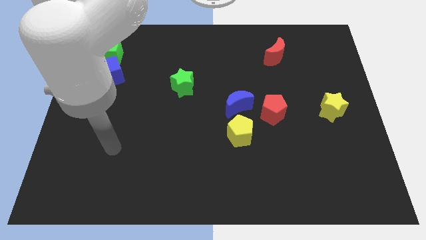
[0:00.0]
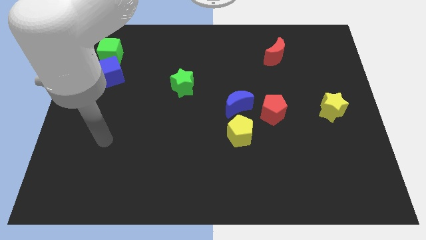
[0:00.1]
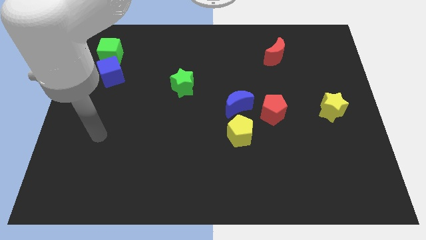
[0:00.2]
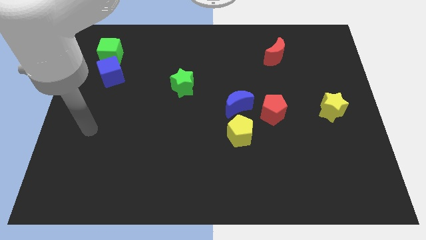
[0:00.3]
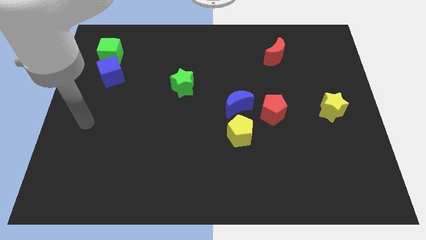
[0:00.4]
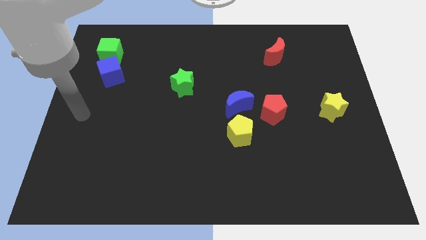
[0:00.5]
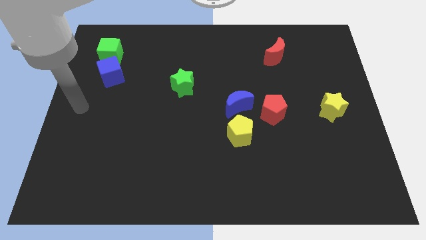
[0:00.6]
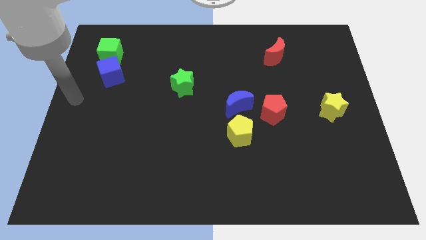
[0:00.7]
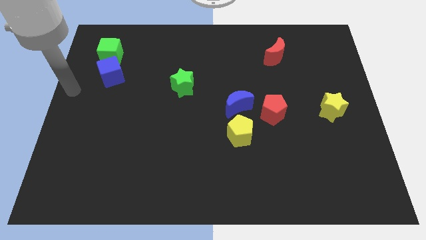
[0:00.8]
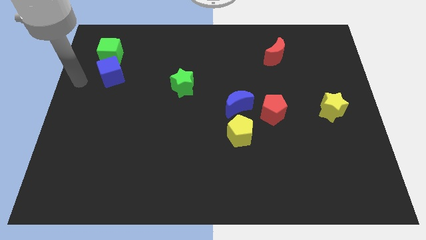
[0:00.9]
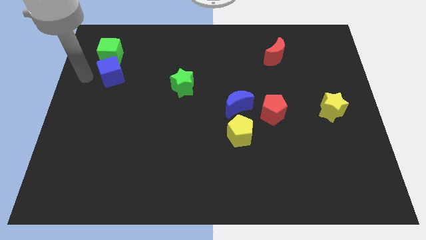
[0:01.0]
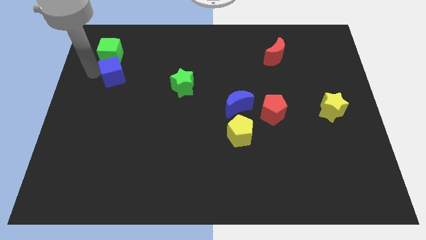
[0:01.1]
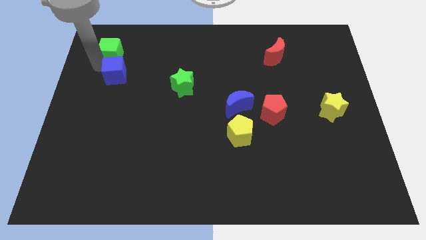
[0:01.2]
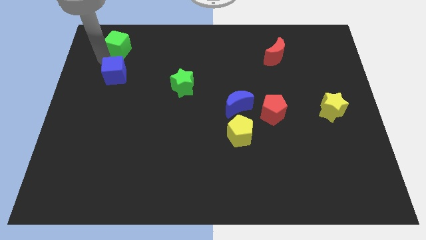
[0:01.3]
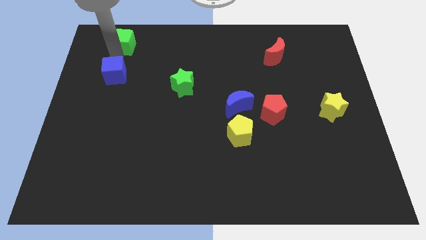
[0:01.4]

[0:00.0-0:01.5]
move the blue cube away from the green cube

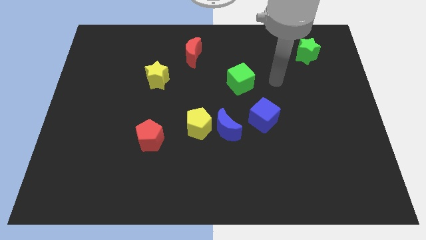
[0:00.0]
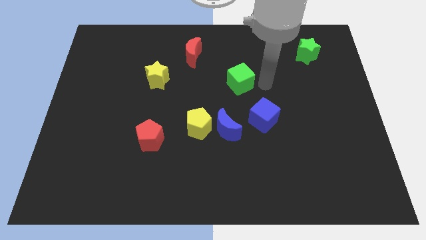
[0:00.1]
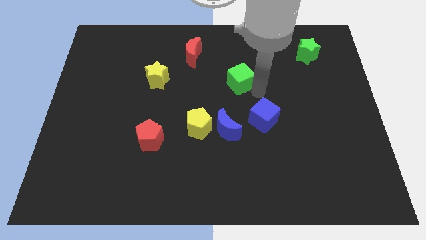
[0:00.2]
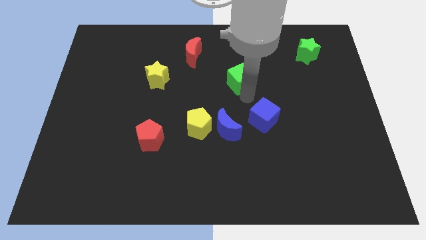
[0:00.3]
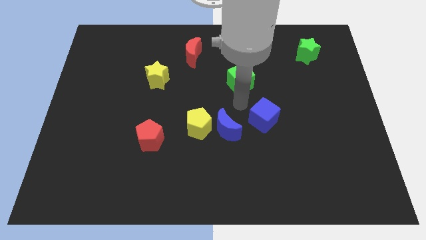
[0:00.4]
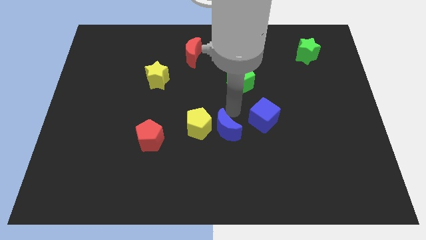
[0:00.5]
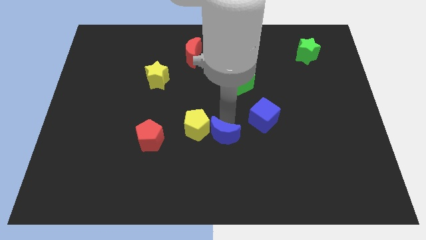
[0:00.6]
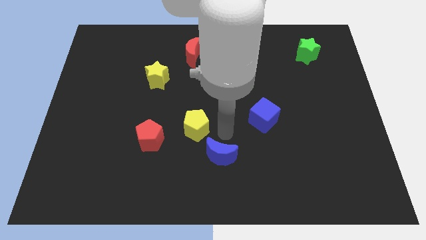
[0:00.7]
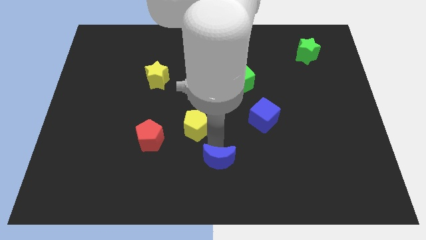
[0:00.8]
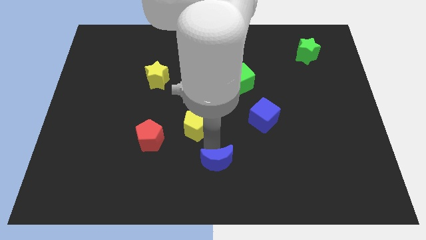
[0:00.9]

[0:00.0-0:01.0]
pull the yellow pentagon apart from the blue moon

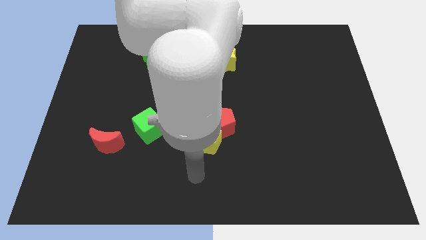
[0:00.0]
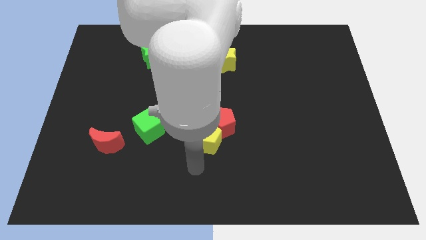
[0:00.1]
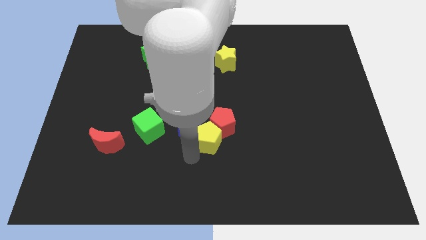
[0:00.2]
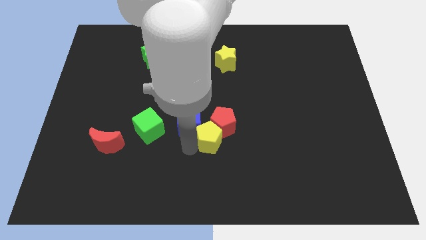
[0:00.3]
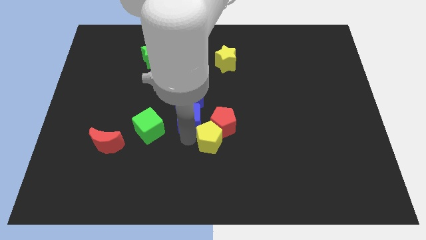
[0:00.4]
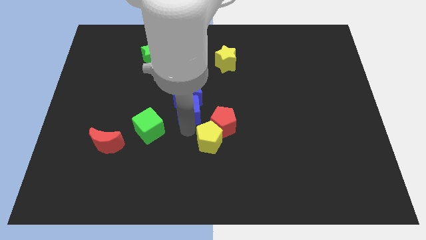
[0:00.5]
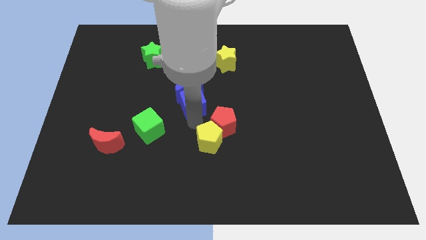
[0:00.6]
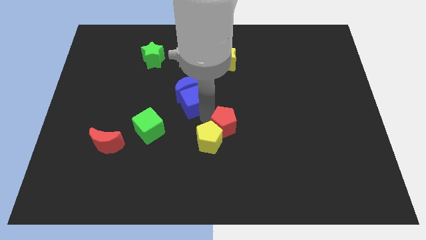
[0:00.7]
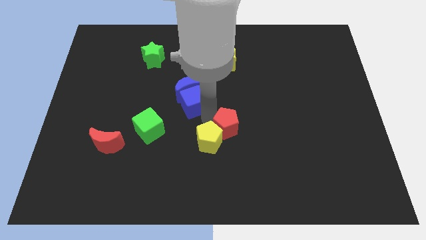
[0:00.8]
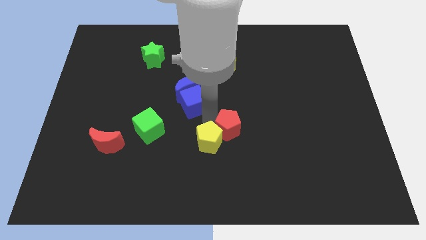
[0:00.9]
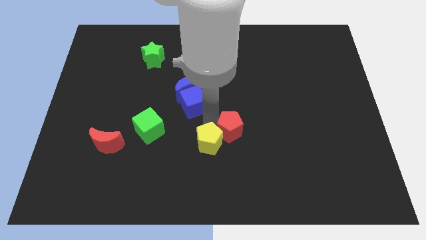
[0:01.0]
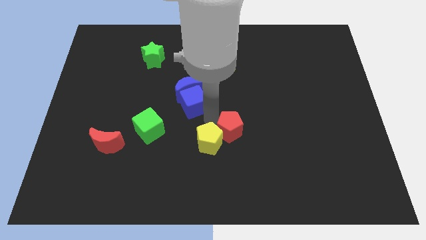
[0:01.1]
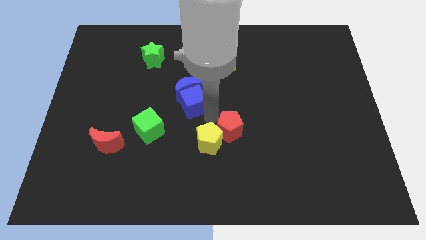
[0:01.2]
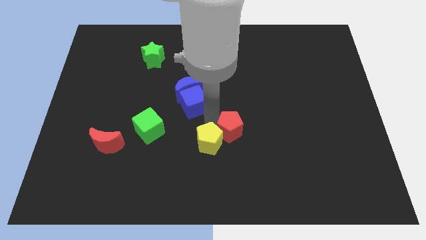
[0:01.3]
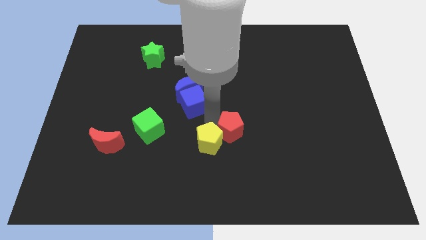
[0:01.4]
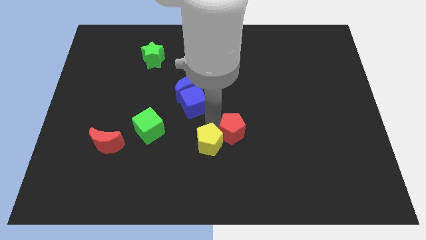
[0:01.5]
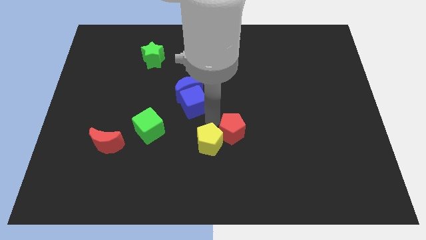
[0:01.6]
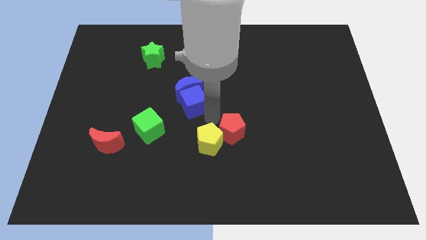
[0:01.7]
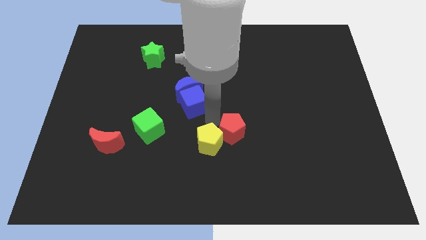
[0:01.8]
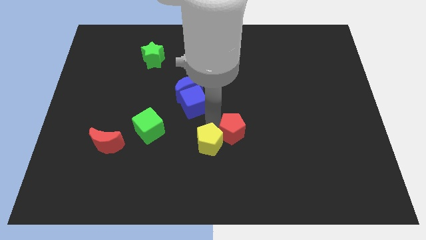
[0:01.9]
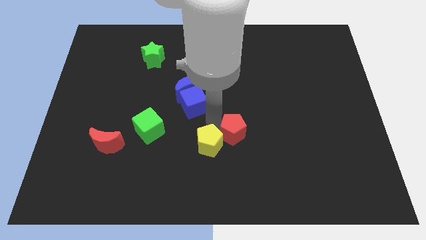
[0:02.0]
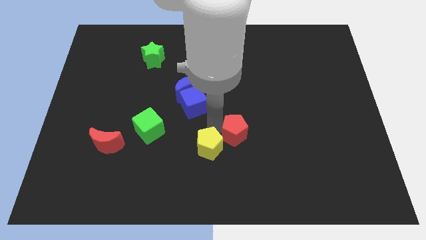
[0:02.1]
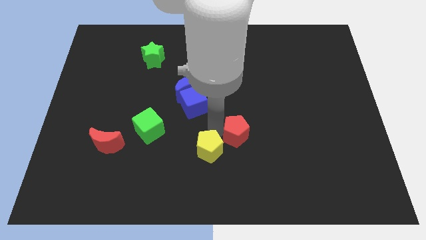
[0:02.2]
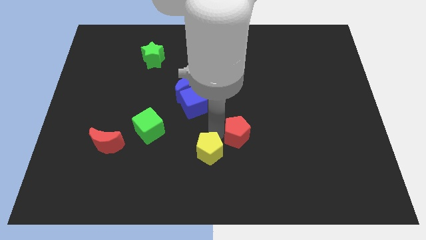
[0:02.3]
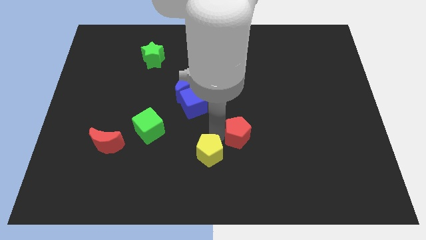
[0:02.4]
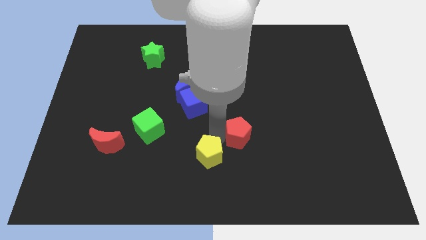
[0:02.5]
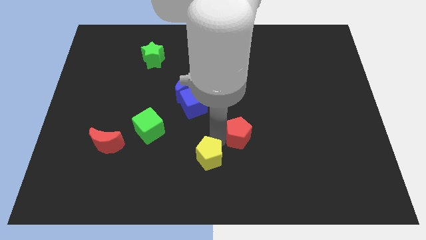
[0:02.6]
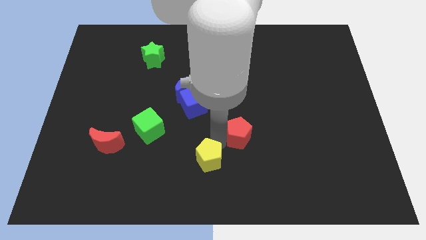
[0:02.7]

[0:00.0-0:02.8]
pull the yellow pentagon apart from the red pentagon and blue cube

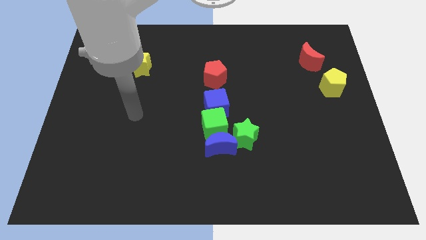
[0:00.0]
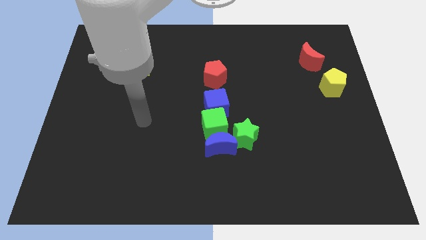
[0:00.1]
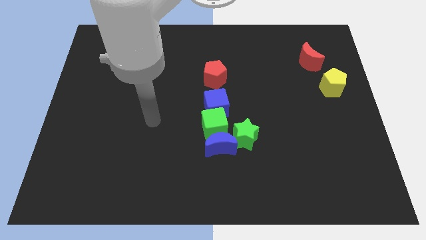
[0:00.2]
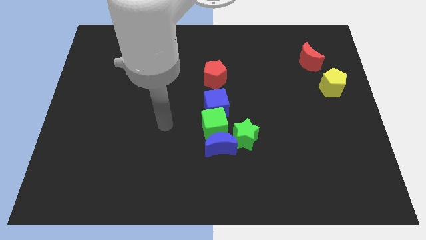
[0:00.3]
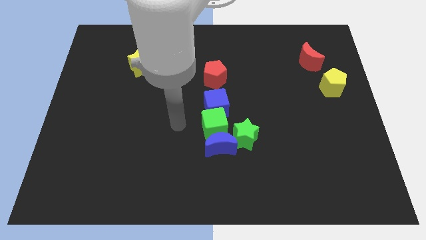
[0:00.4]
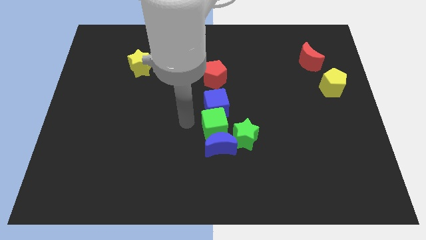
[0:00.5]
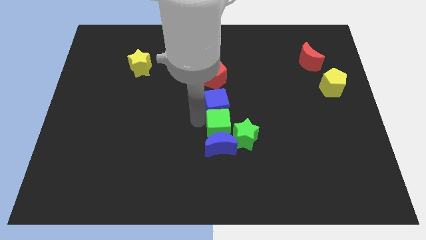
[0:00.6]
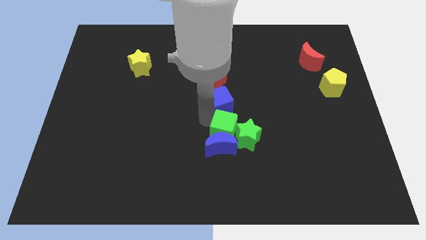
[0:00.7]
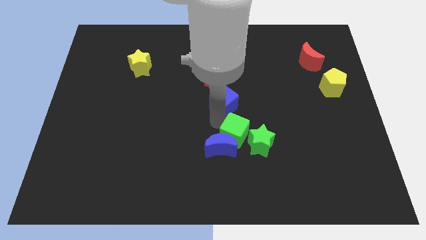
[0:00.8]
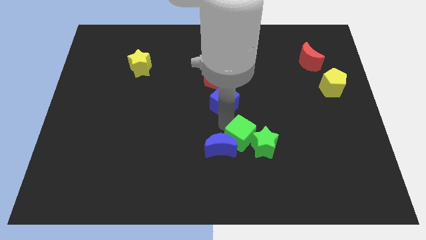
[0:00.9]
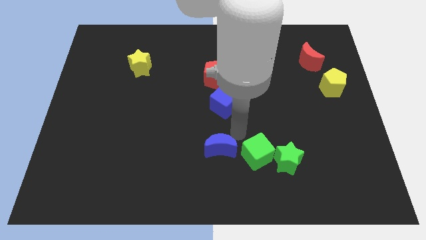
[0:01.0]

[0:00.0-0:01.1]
separate the blue moon from the green cube and green star

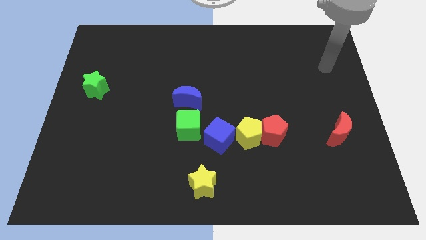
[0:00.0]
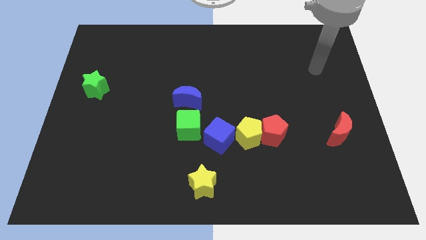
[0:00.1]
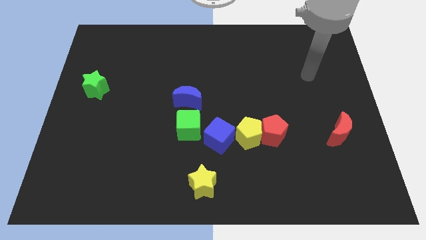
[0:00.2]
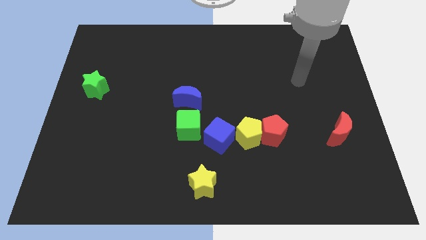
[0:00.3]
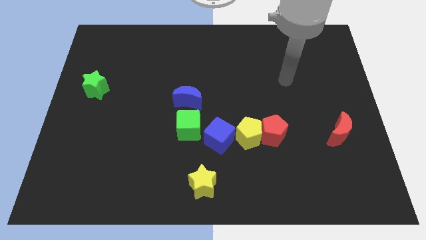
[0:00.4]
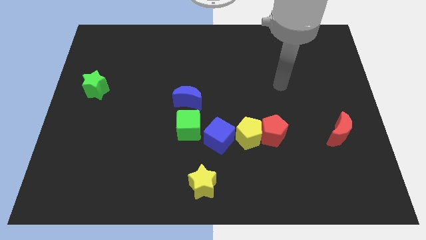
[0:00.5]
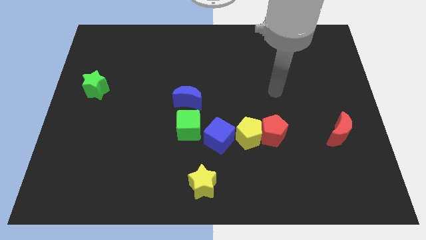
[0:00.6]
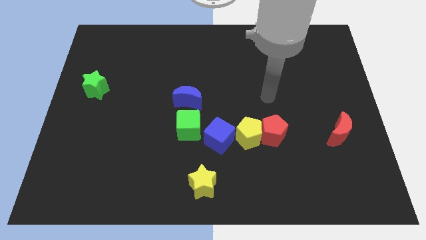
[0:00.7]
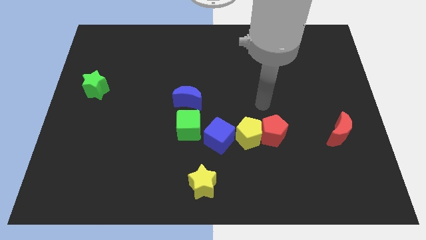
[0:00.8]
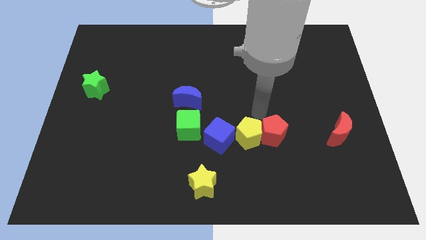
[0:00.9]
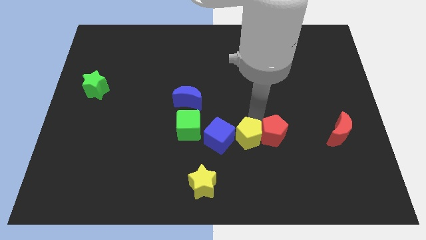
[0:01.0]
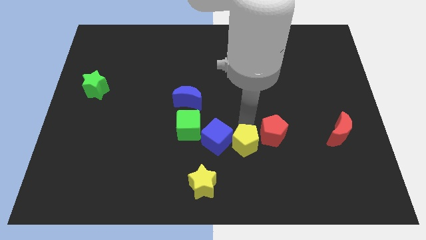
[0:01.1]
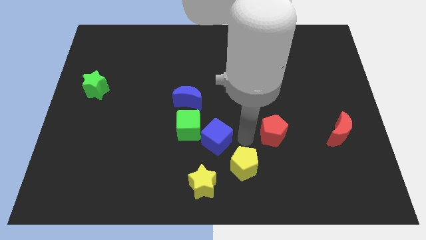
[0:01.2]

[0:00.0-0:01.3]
pull the red pentagon apart from the yellow pentagon

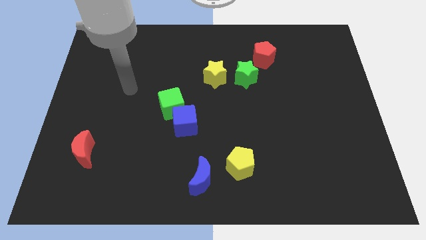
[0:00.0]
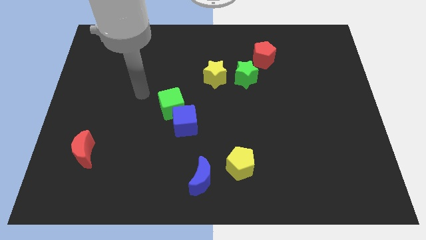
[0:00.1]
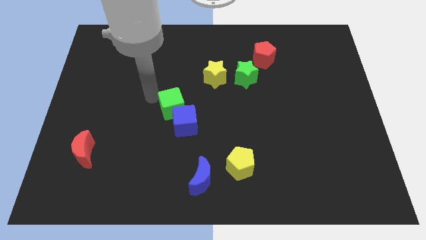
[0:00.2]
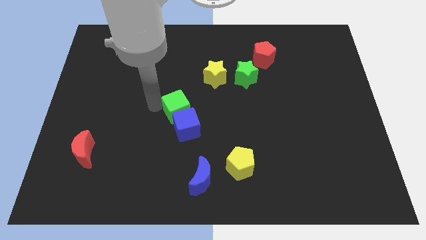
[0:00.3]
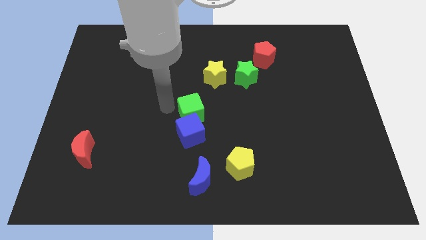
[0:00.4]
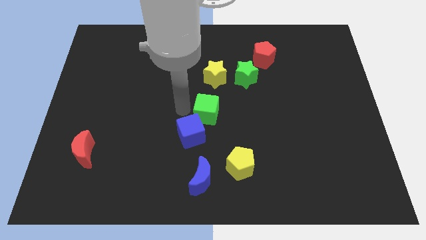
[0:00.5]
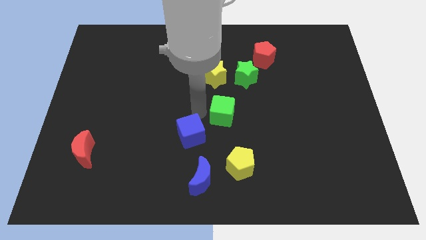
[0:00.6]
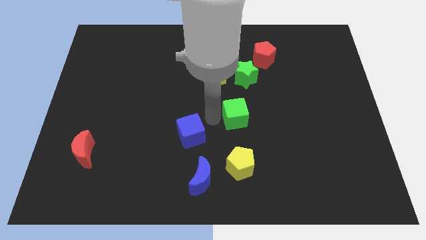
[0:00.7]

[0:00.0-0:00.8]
separate the blue cube from the green cube

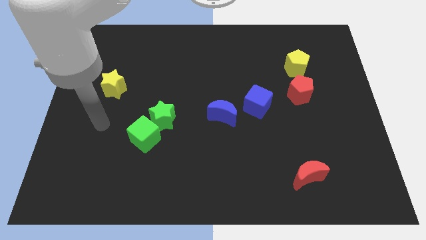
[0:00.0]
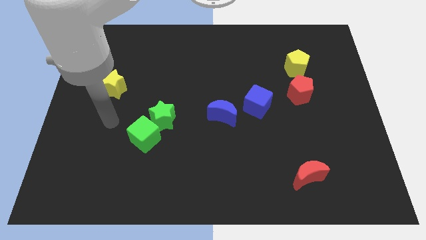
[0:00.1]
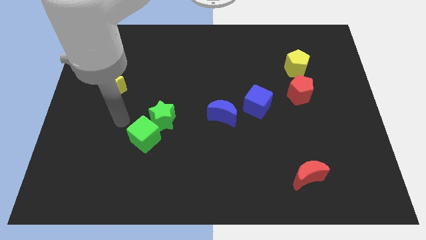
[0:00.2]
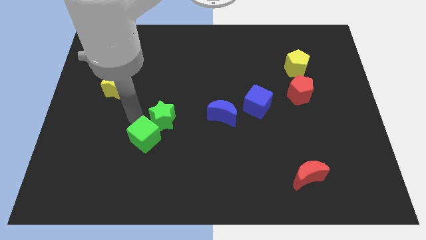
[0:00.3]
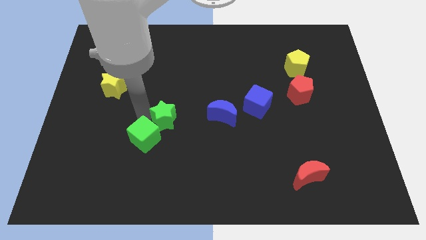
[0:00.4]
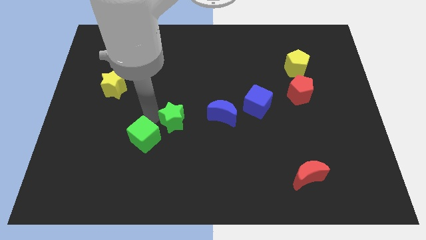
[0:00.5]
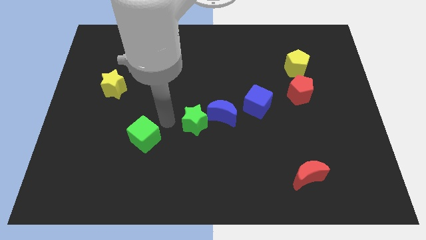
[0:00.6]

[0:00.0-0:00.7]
move the green cube away from the green star

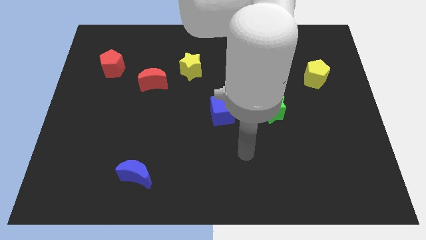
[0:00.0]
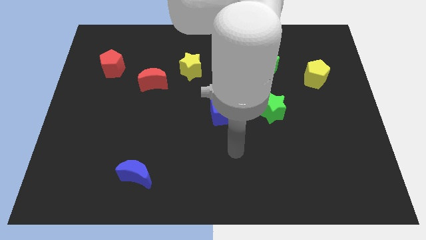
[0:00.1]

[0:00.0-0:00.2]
separate the red moon from the yellow star
